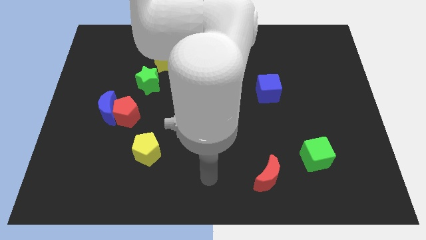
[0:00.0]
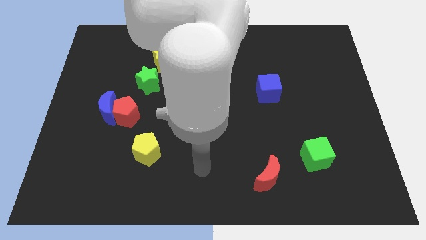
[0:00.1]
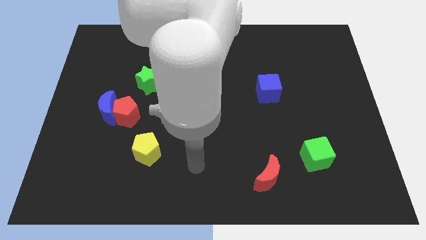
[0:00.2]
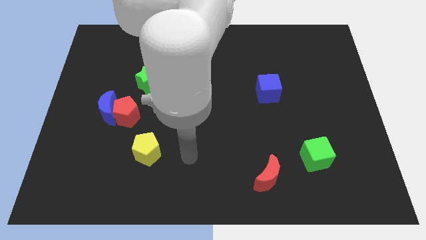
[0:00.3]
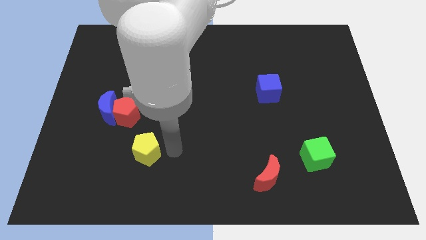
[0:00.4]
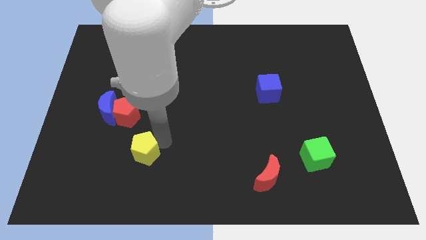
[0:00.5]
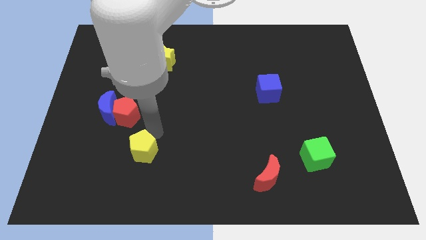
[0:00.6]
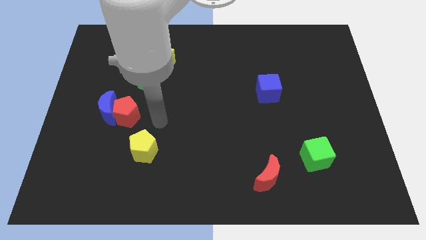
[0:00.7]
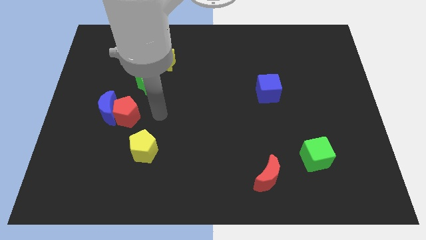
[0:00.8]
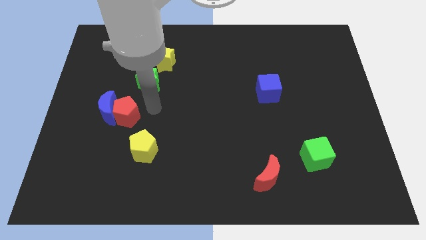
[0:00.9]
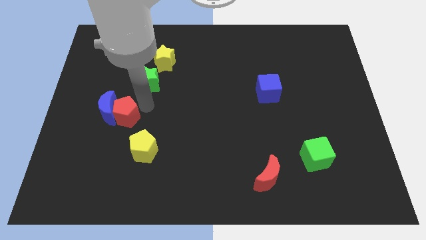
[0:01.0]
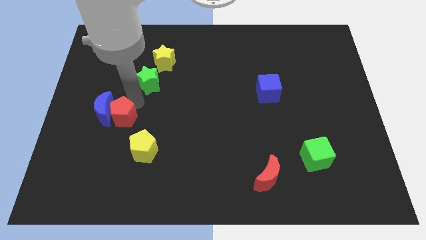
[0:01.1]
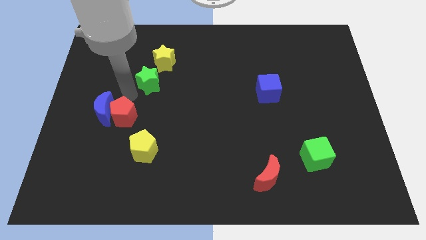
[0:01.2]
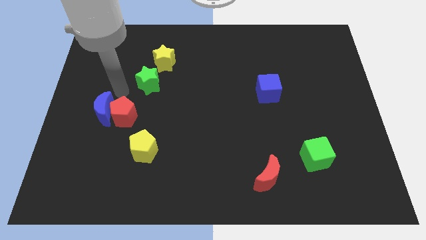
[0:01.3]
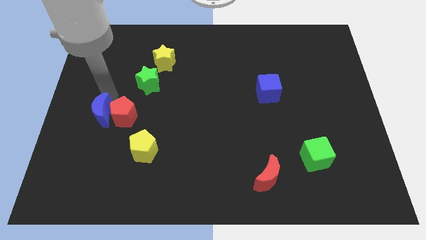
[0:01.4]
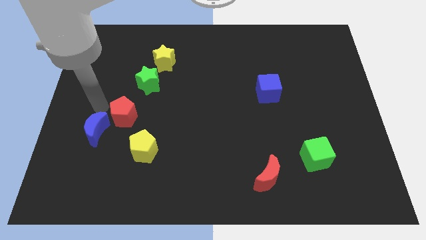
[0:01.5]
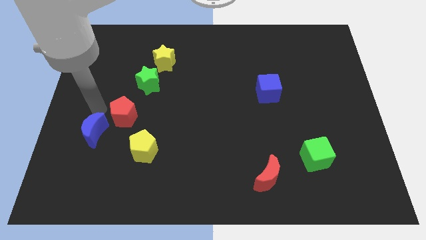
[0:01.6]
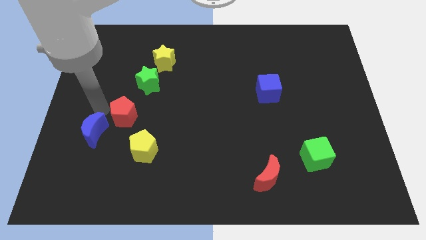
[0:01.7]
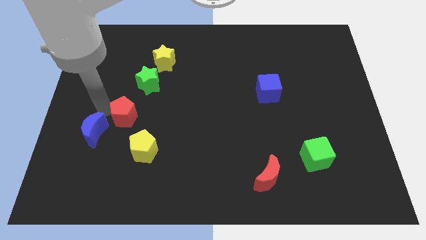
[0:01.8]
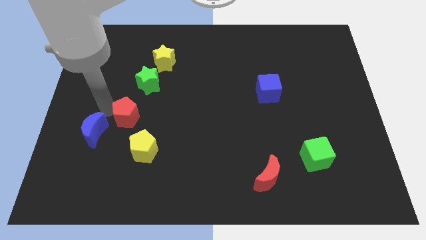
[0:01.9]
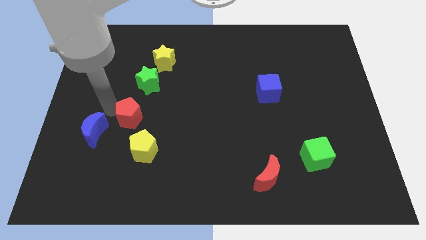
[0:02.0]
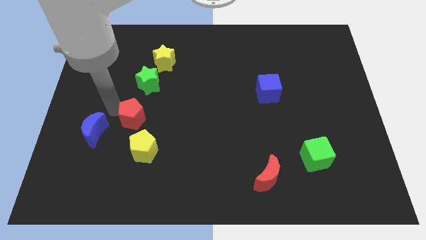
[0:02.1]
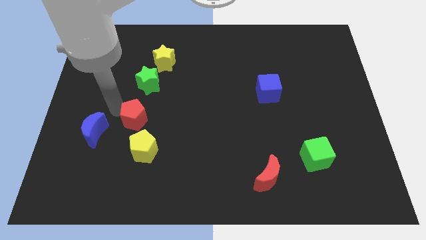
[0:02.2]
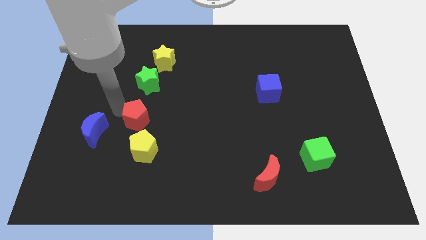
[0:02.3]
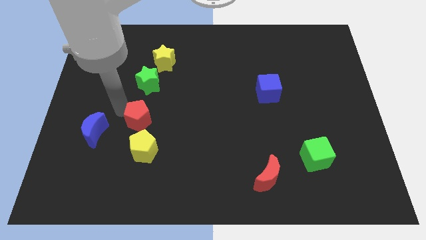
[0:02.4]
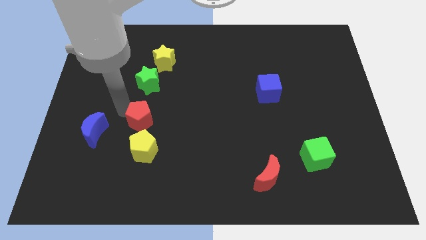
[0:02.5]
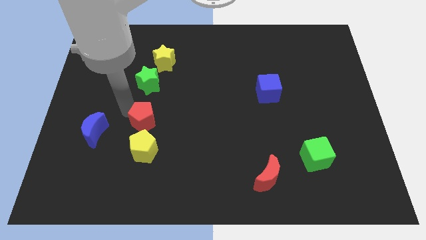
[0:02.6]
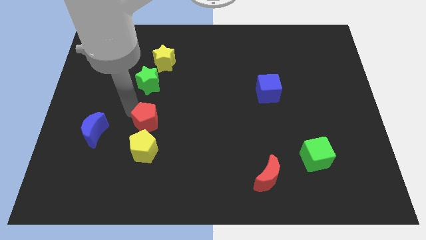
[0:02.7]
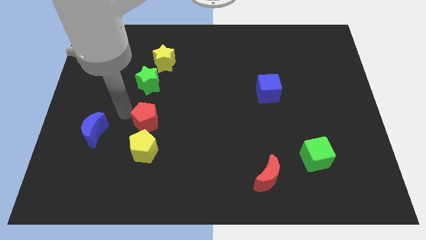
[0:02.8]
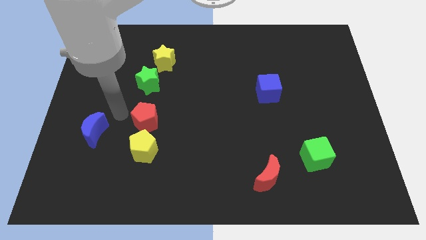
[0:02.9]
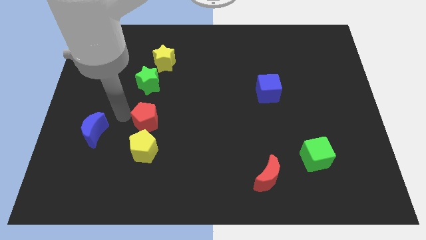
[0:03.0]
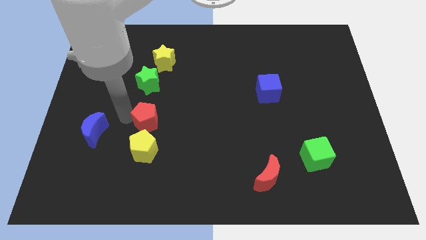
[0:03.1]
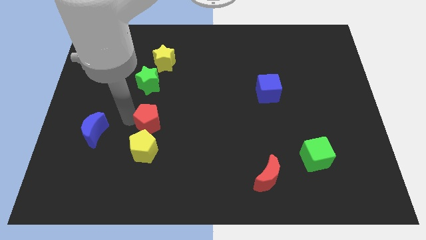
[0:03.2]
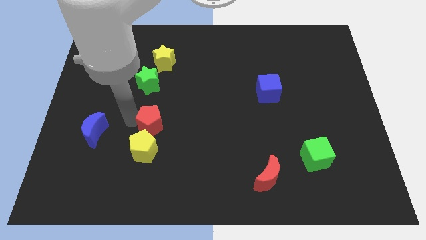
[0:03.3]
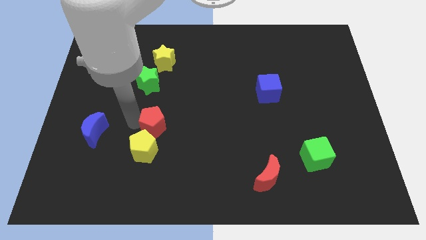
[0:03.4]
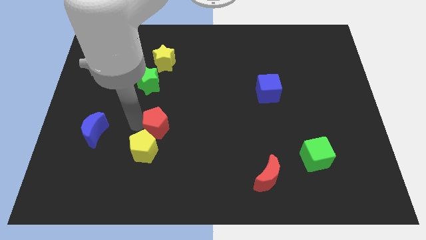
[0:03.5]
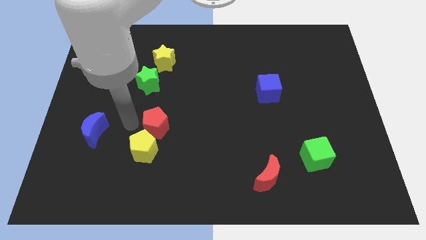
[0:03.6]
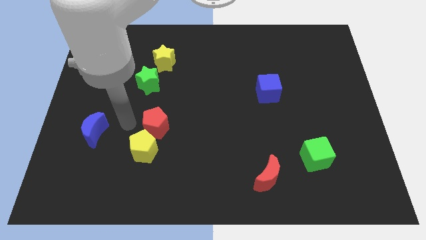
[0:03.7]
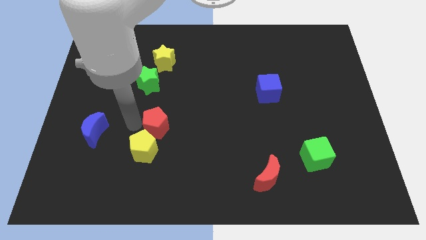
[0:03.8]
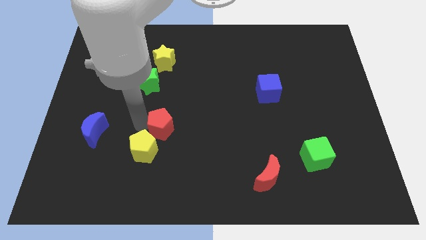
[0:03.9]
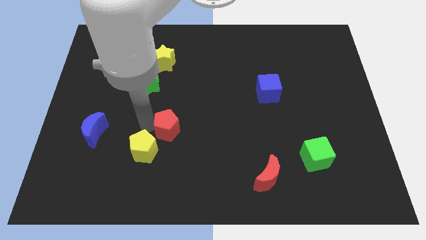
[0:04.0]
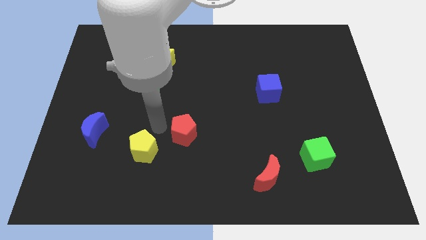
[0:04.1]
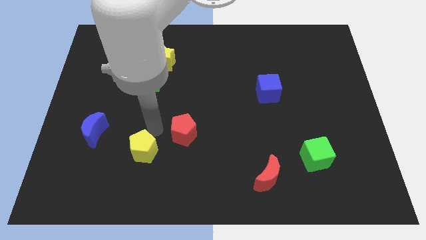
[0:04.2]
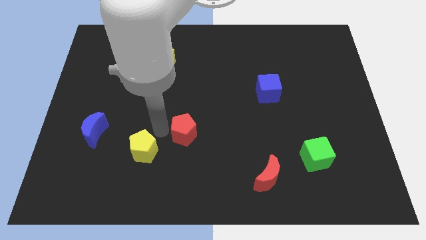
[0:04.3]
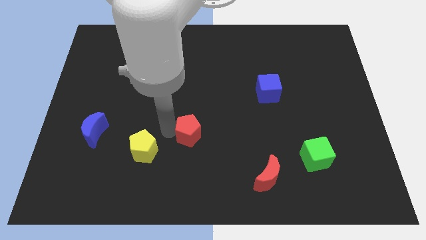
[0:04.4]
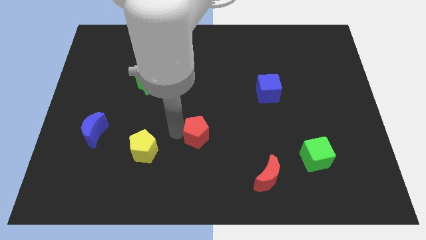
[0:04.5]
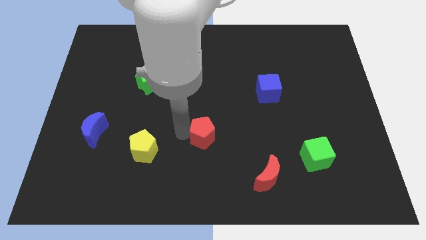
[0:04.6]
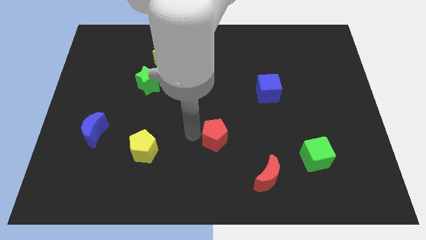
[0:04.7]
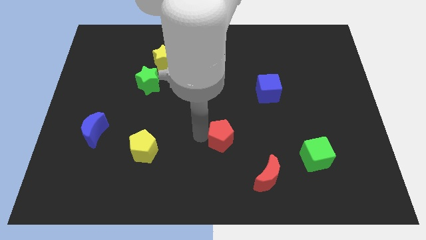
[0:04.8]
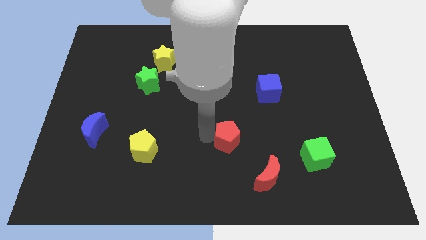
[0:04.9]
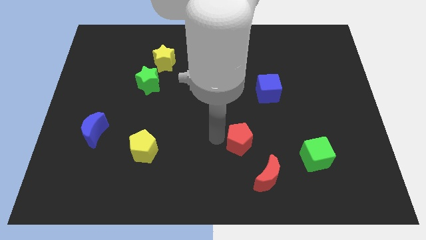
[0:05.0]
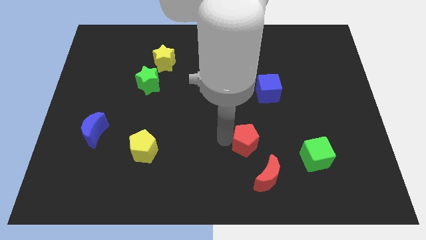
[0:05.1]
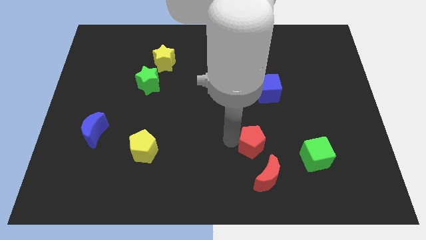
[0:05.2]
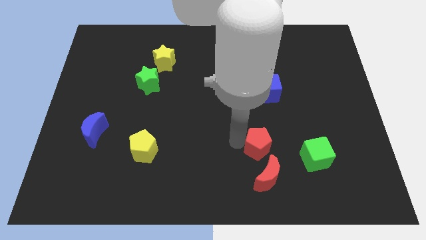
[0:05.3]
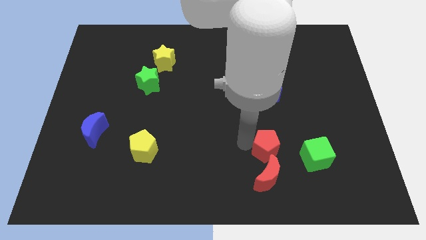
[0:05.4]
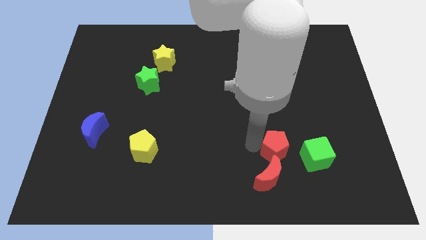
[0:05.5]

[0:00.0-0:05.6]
slide the red pentagon diagonally up and to the right of the red moon

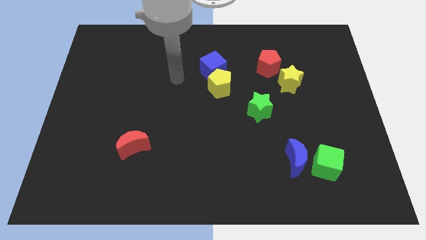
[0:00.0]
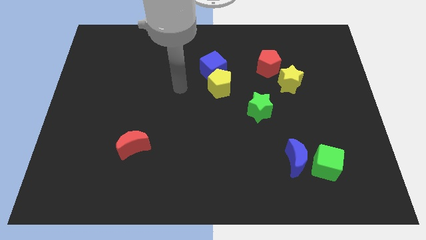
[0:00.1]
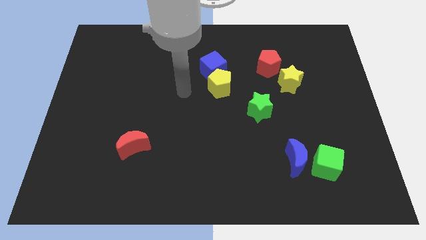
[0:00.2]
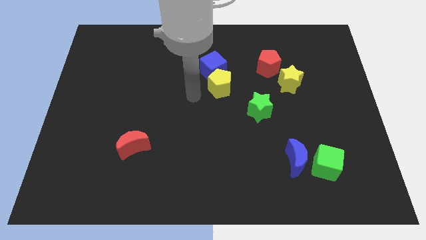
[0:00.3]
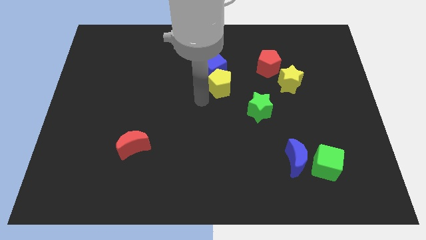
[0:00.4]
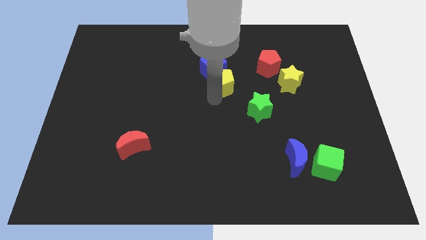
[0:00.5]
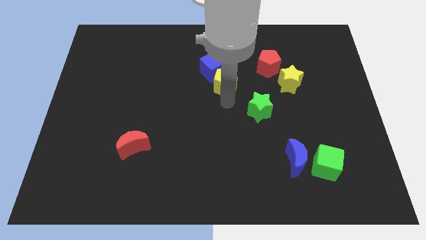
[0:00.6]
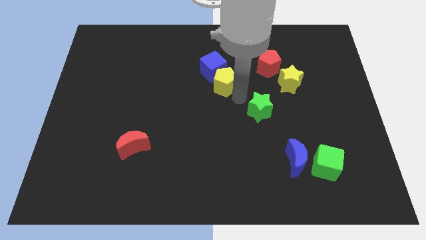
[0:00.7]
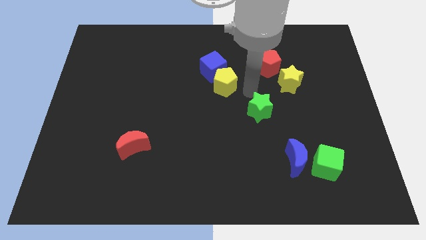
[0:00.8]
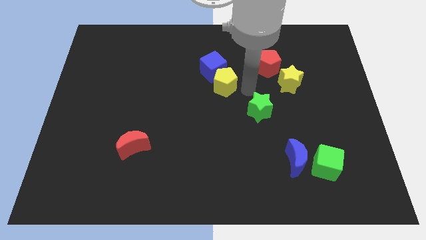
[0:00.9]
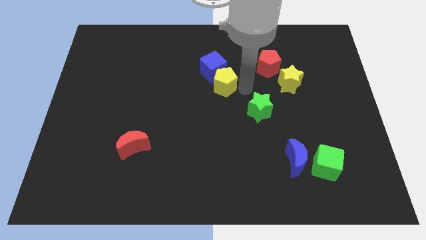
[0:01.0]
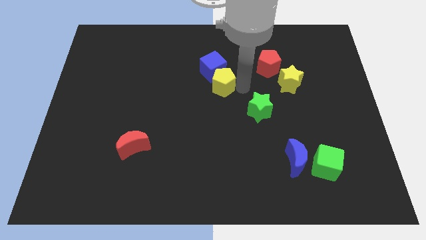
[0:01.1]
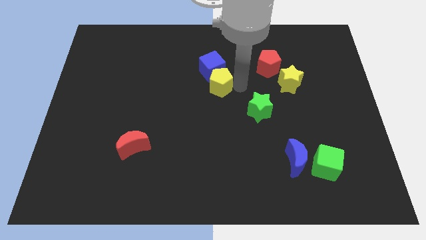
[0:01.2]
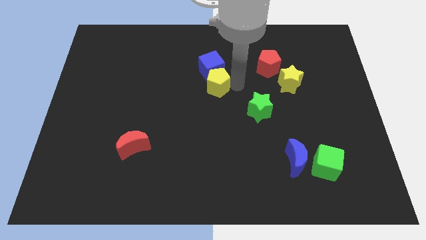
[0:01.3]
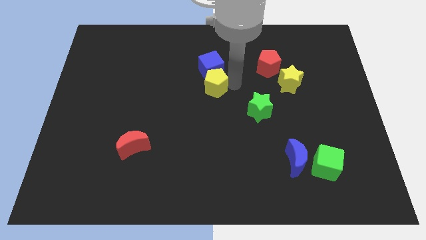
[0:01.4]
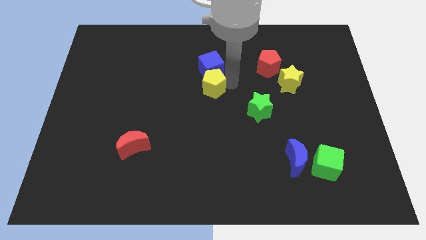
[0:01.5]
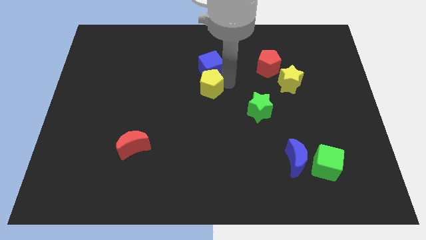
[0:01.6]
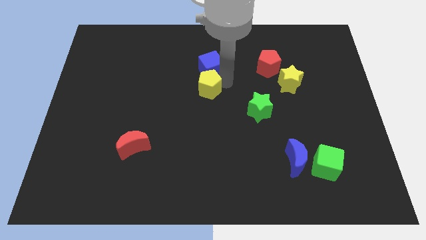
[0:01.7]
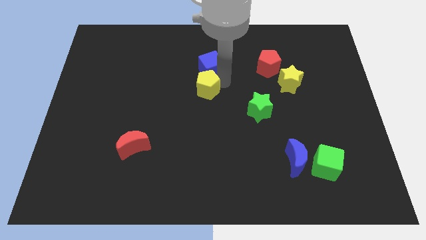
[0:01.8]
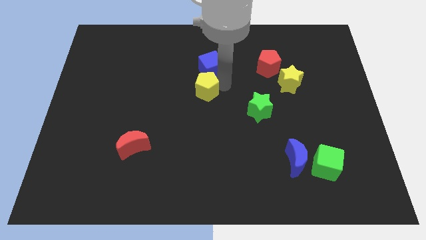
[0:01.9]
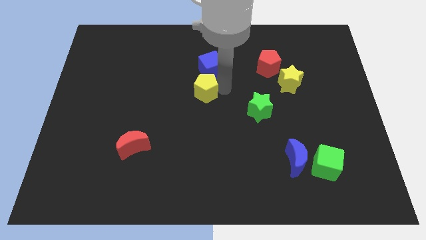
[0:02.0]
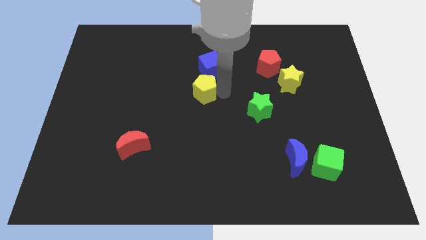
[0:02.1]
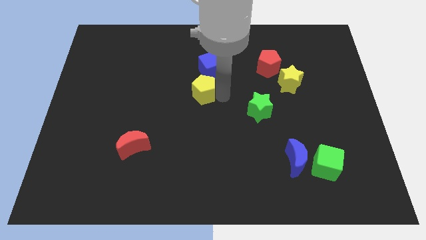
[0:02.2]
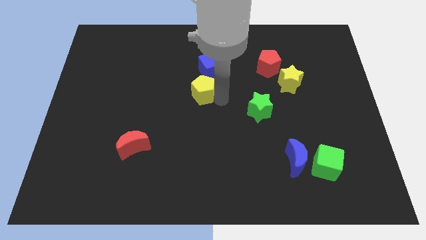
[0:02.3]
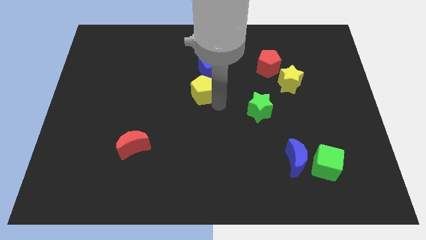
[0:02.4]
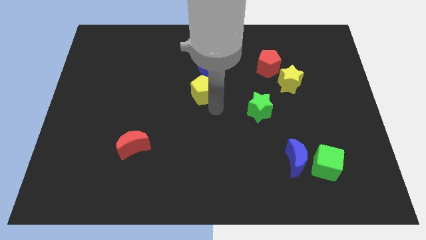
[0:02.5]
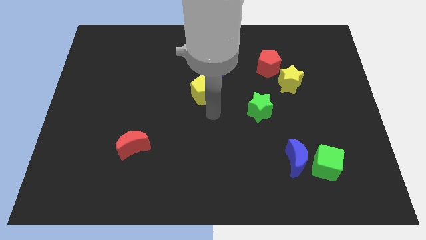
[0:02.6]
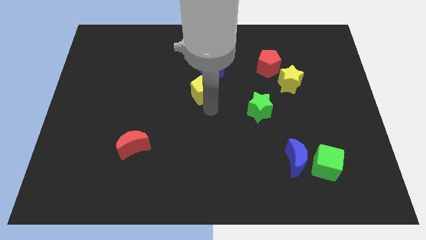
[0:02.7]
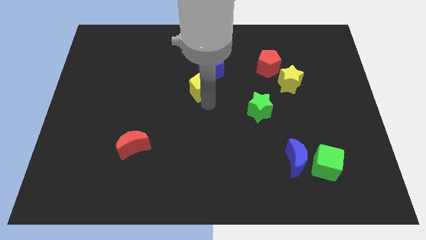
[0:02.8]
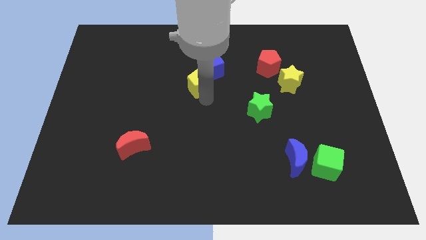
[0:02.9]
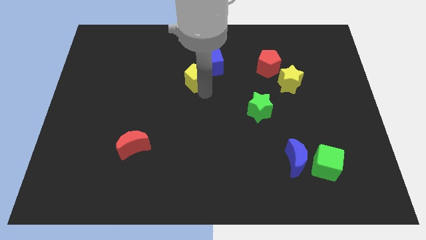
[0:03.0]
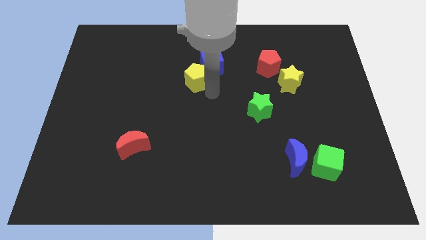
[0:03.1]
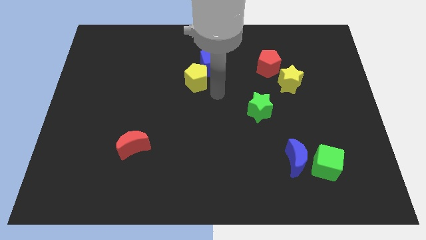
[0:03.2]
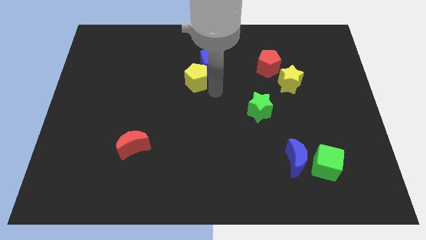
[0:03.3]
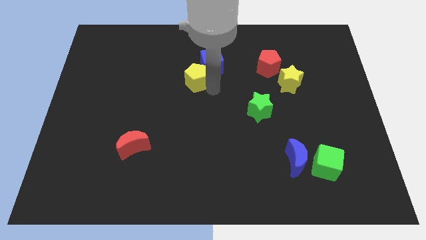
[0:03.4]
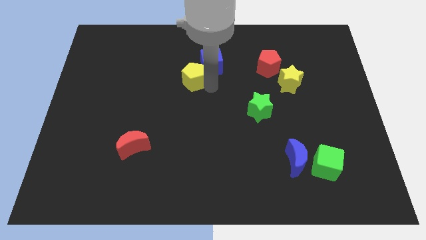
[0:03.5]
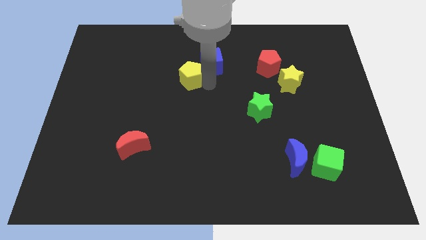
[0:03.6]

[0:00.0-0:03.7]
put the yellow pentagon just left of the blue cube
